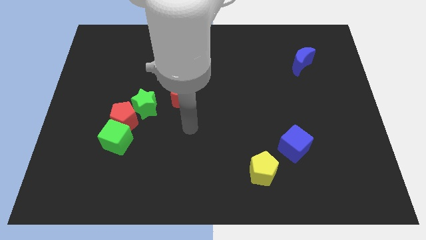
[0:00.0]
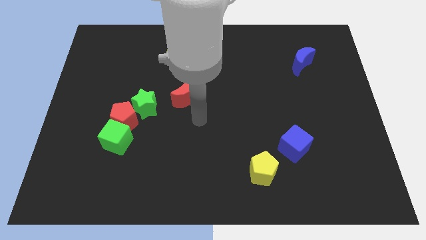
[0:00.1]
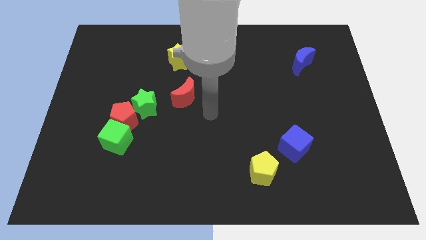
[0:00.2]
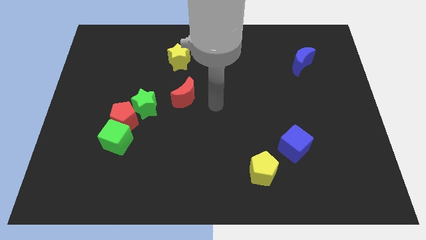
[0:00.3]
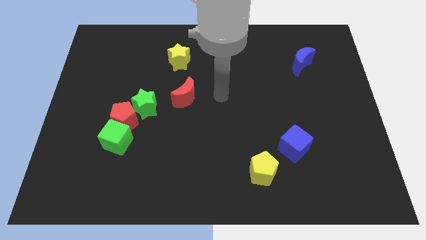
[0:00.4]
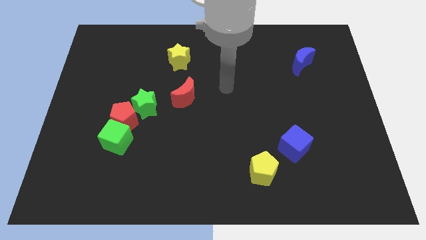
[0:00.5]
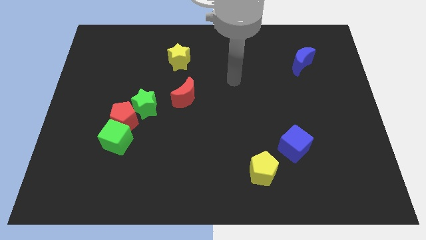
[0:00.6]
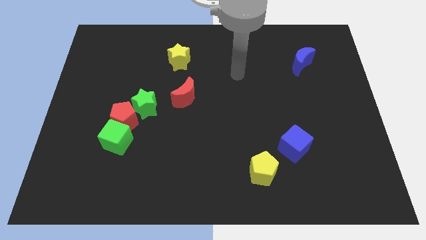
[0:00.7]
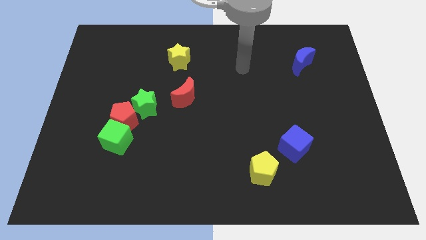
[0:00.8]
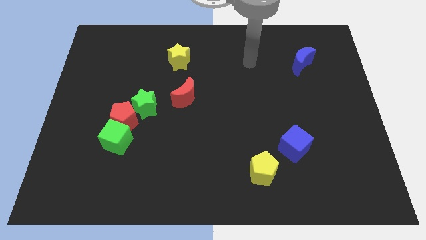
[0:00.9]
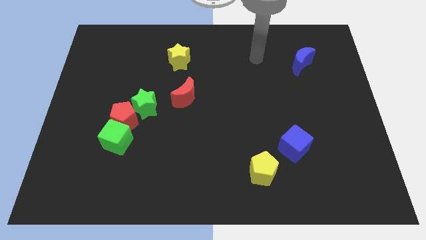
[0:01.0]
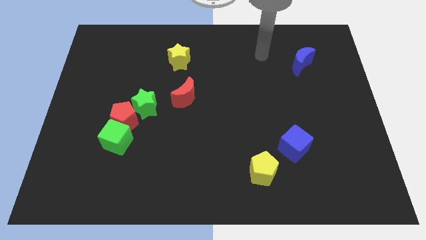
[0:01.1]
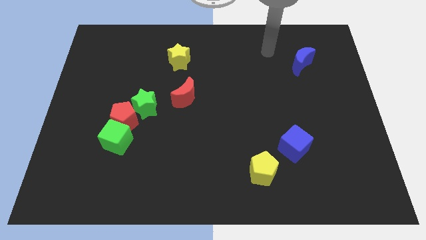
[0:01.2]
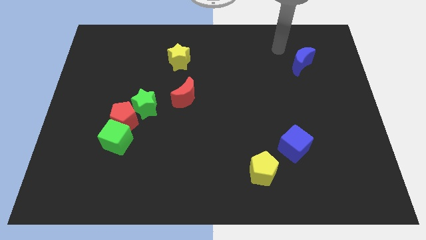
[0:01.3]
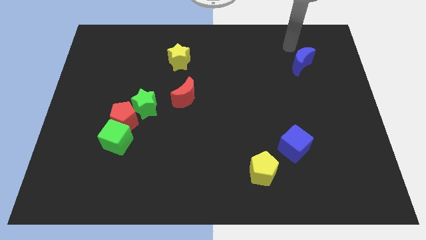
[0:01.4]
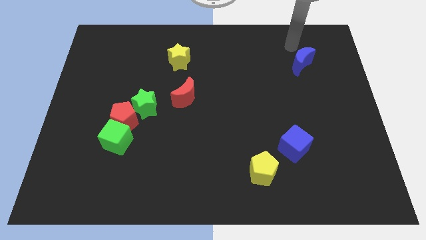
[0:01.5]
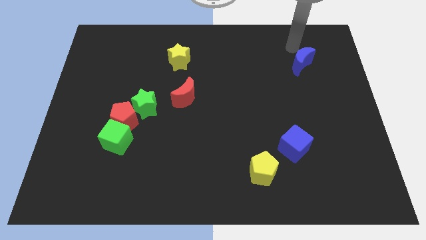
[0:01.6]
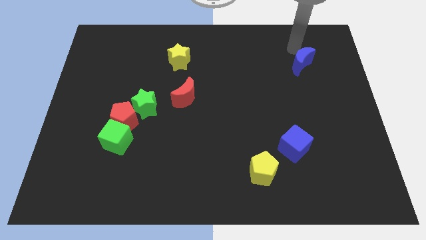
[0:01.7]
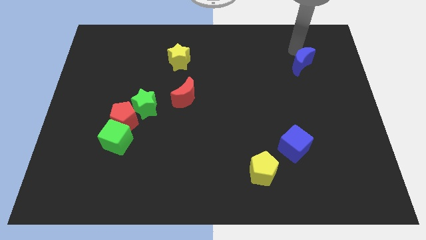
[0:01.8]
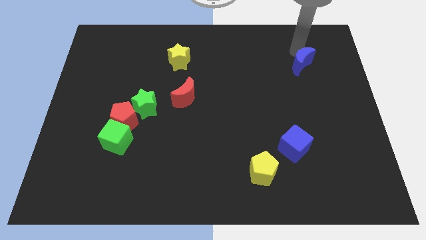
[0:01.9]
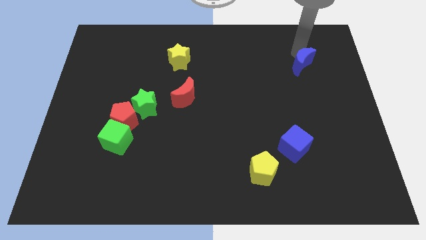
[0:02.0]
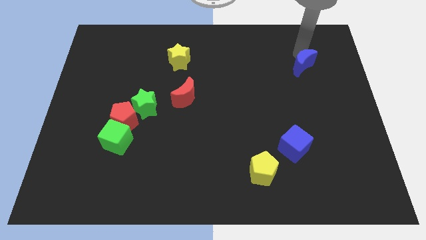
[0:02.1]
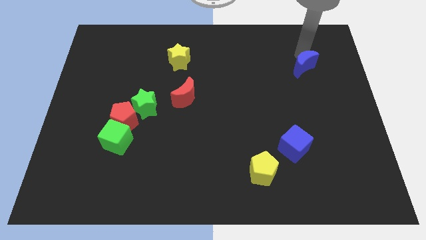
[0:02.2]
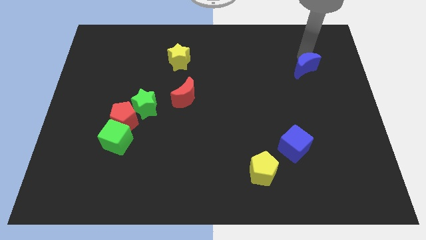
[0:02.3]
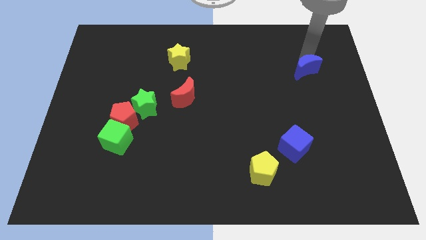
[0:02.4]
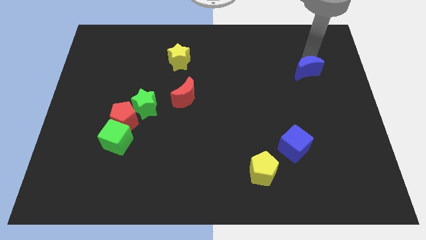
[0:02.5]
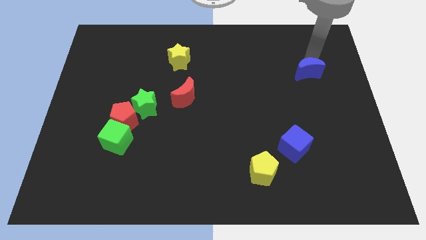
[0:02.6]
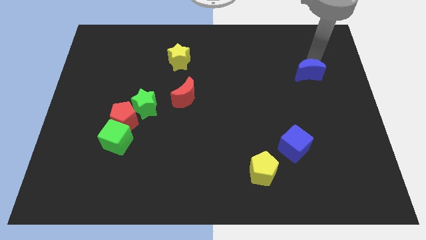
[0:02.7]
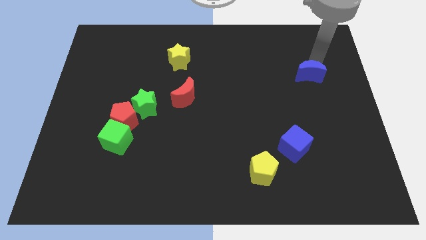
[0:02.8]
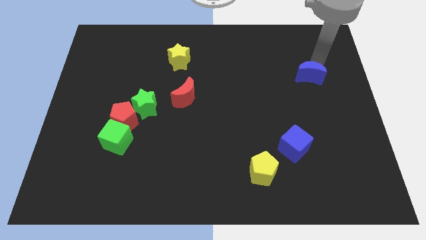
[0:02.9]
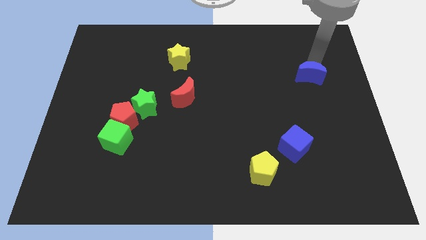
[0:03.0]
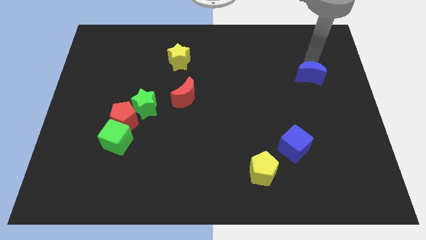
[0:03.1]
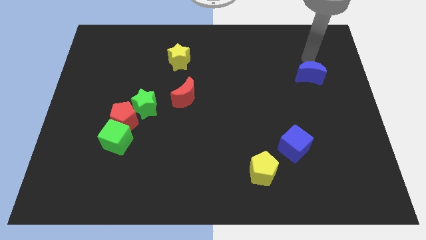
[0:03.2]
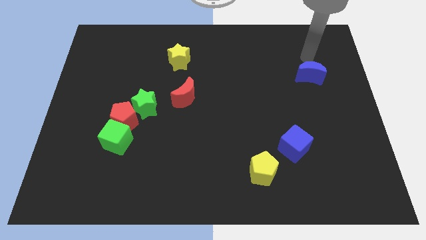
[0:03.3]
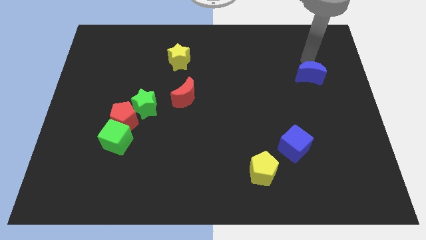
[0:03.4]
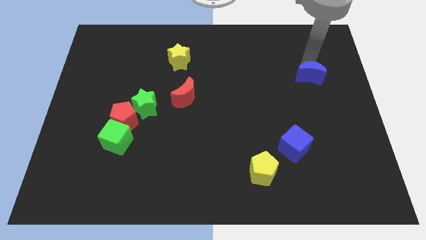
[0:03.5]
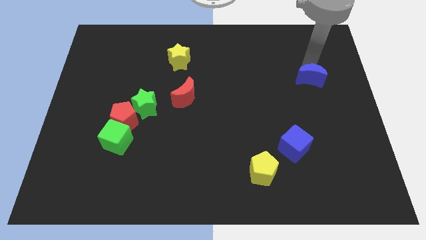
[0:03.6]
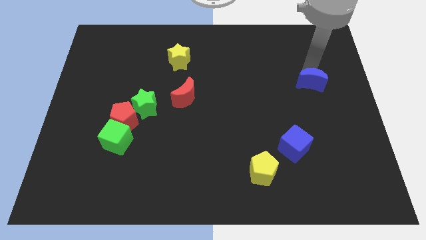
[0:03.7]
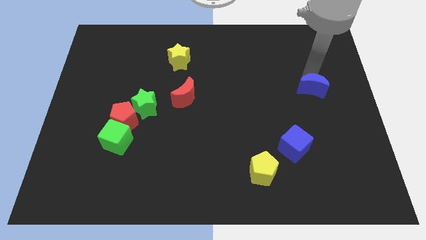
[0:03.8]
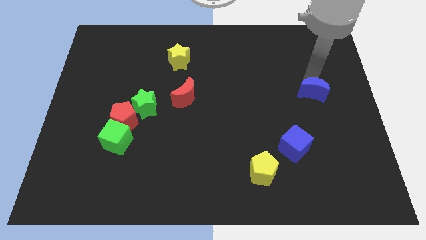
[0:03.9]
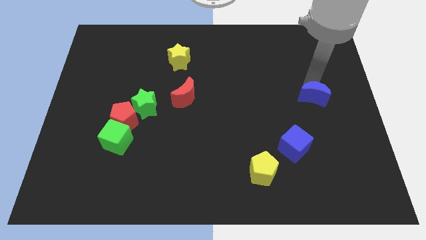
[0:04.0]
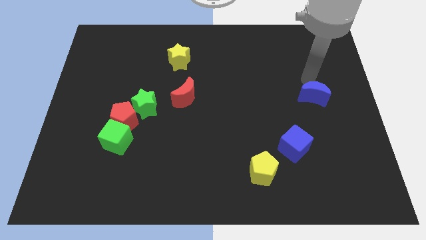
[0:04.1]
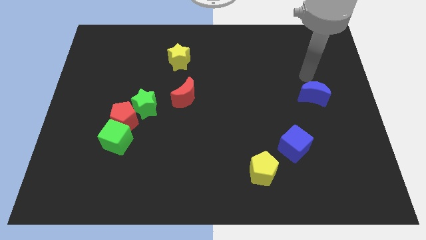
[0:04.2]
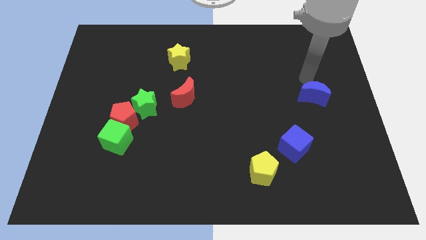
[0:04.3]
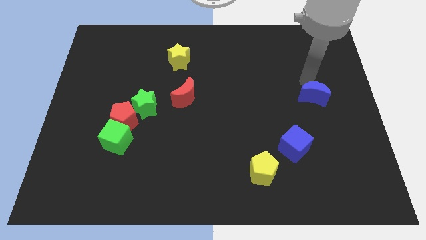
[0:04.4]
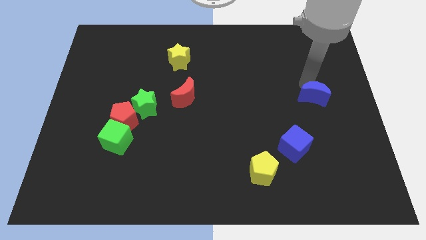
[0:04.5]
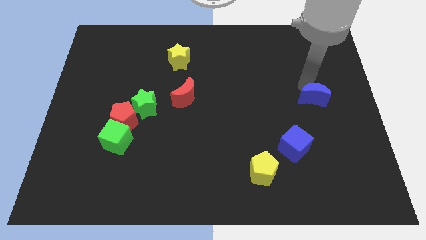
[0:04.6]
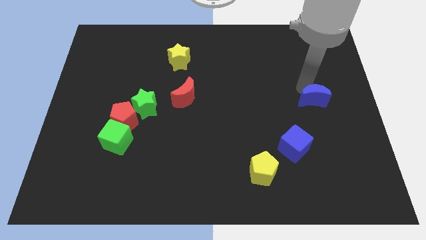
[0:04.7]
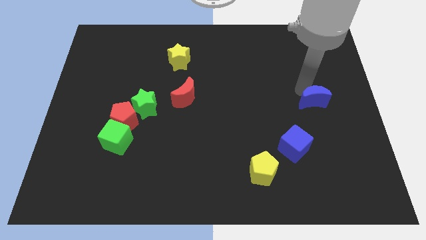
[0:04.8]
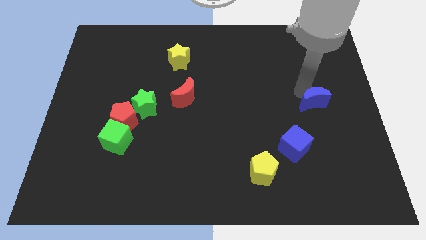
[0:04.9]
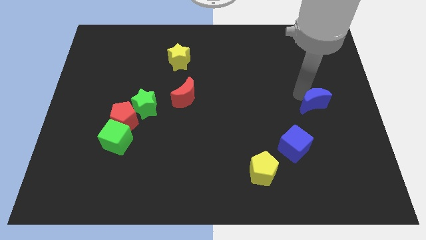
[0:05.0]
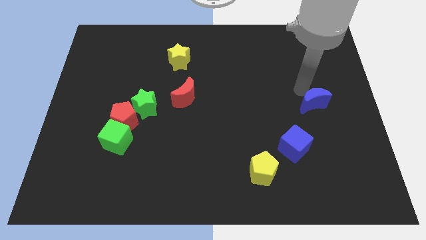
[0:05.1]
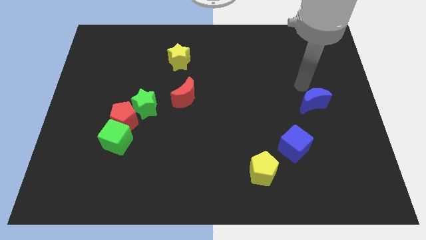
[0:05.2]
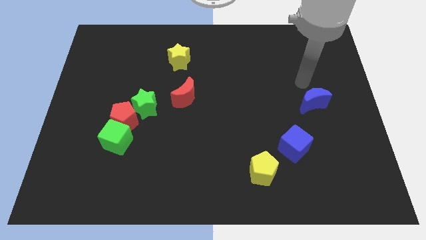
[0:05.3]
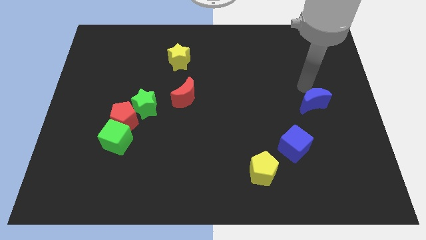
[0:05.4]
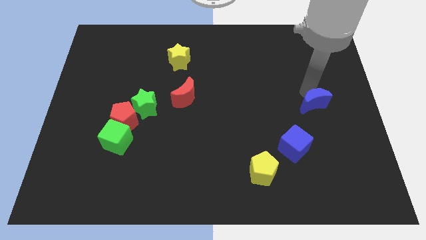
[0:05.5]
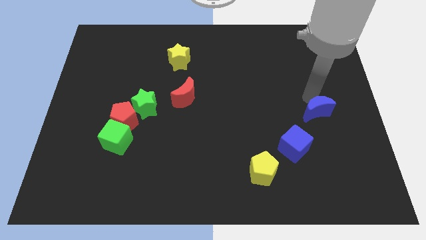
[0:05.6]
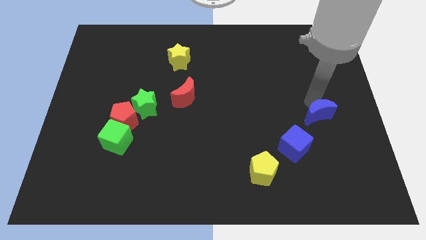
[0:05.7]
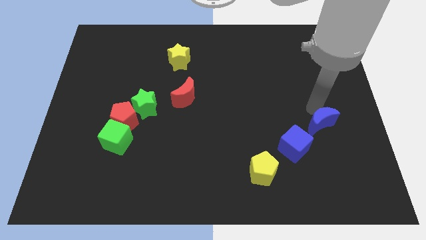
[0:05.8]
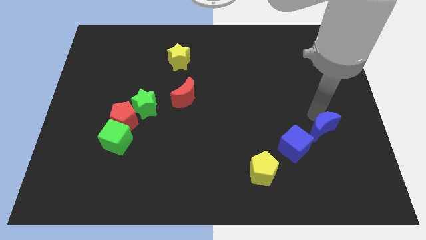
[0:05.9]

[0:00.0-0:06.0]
put the blue moon to the right side of the blue cube

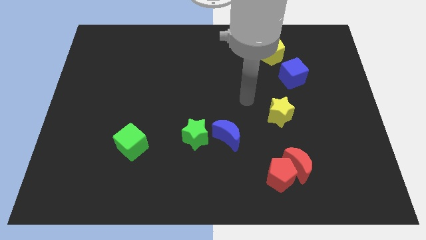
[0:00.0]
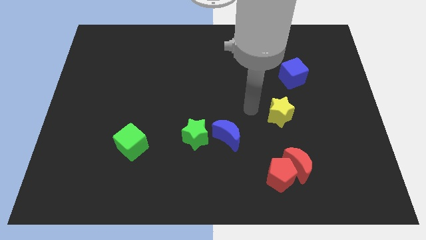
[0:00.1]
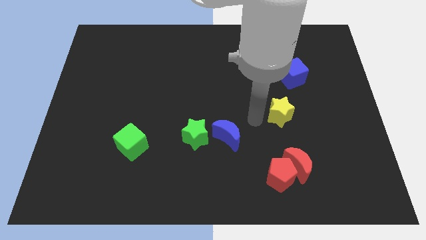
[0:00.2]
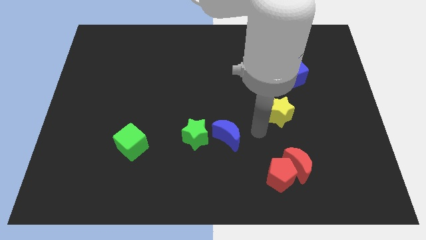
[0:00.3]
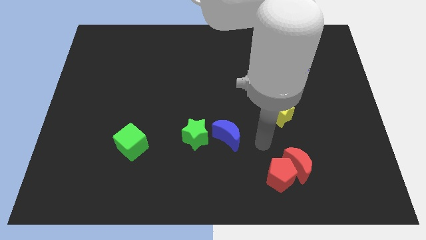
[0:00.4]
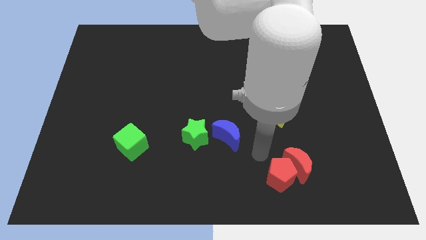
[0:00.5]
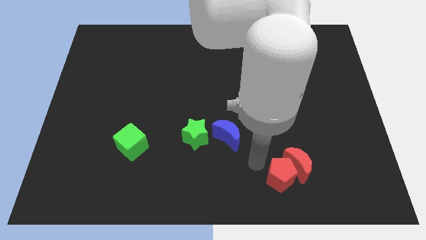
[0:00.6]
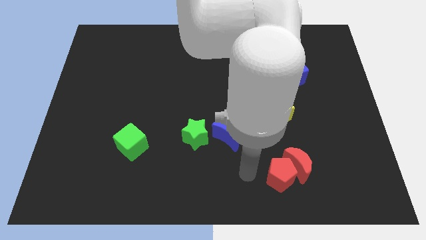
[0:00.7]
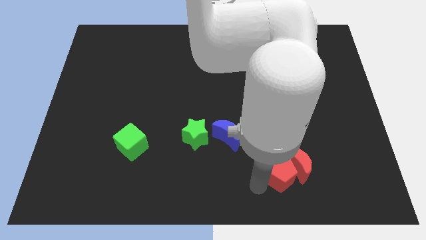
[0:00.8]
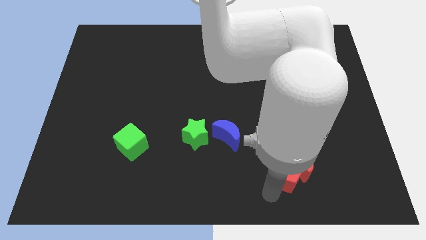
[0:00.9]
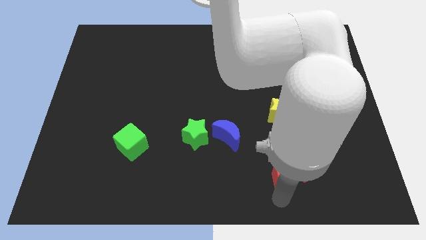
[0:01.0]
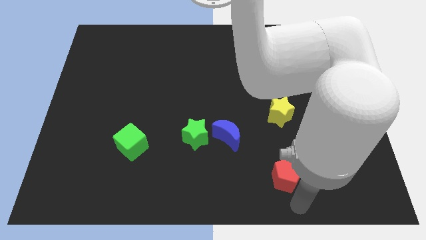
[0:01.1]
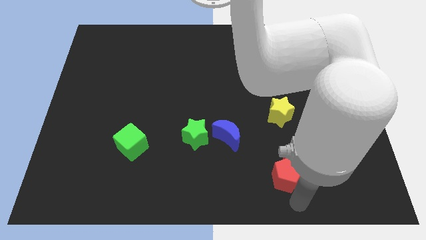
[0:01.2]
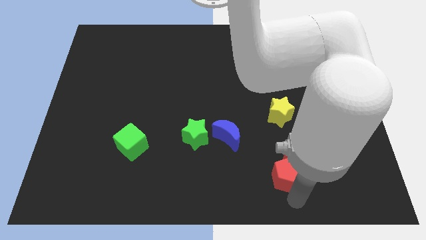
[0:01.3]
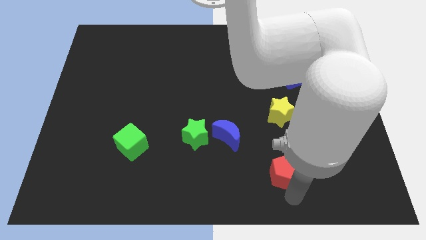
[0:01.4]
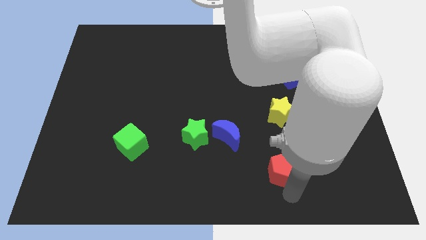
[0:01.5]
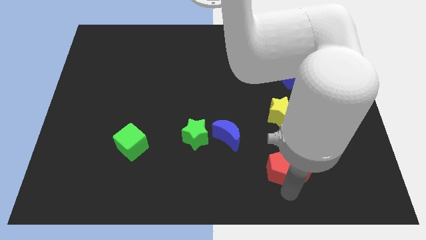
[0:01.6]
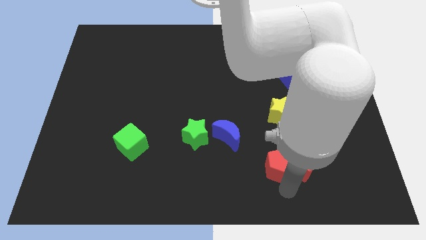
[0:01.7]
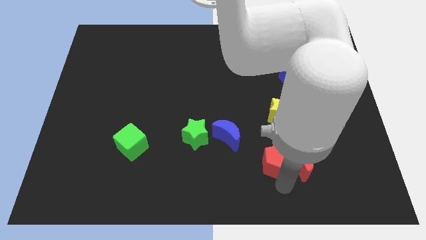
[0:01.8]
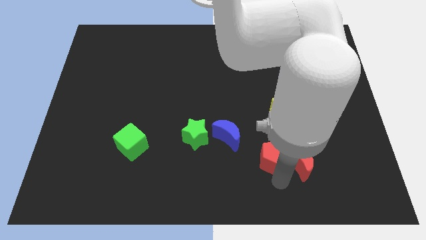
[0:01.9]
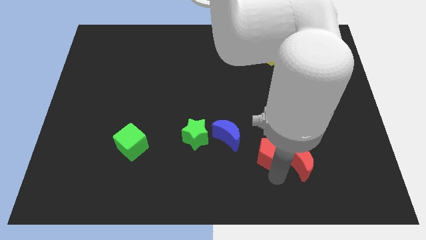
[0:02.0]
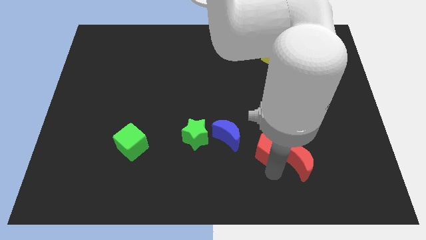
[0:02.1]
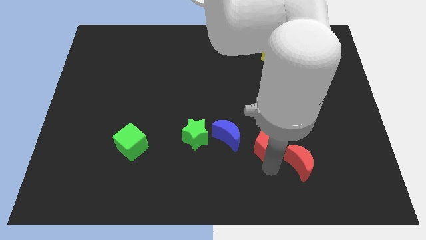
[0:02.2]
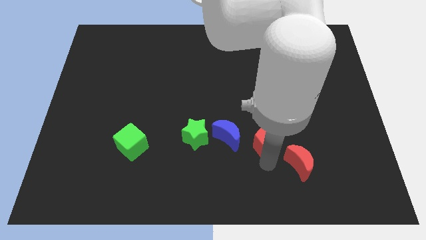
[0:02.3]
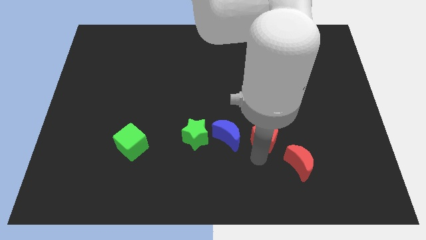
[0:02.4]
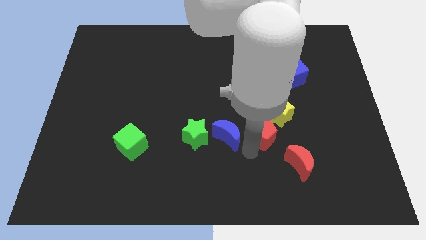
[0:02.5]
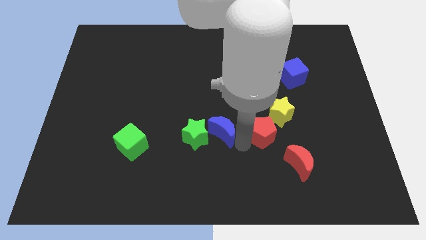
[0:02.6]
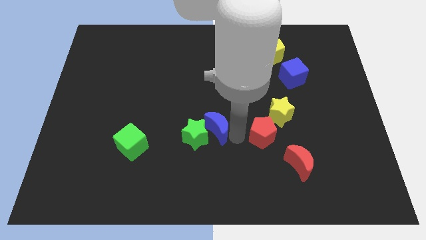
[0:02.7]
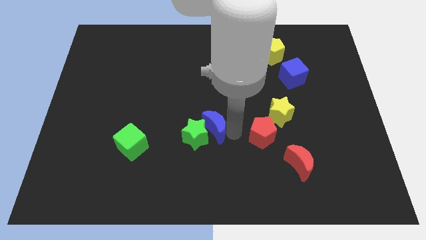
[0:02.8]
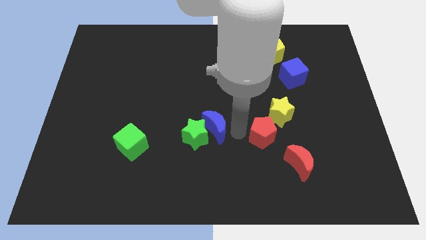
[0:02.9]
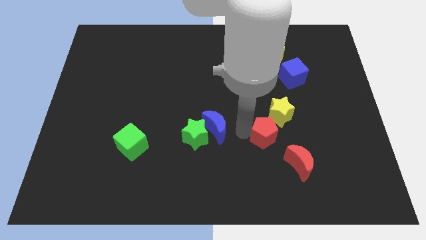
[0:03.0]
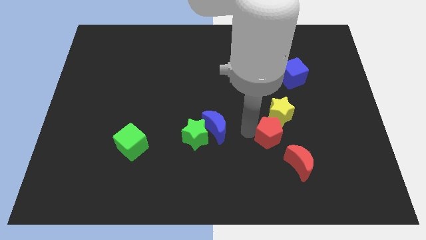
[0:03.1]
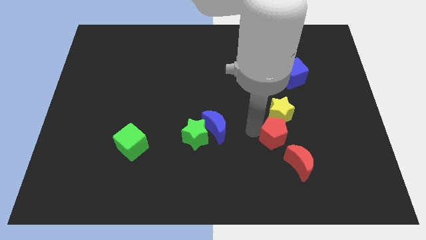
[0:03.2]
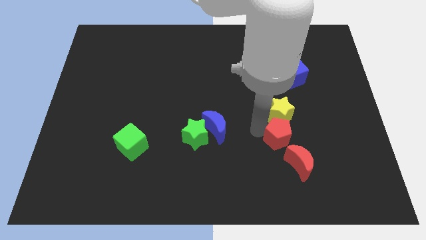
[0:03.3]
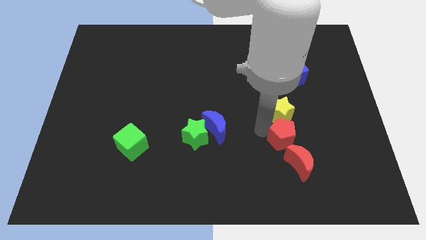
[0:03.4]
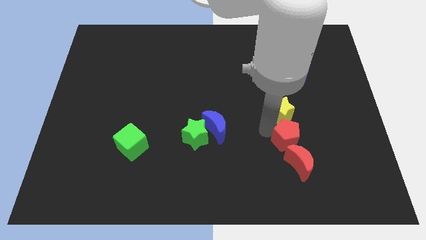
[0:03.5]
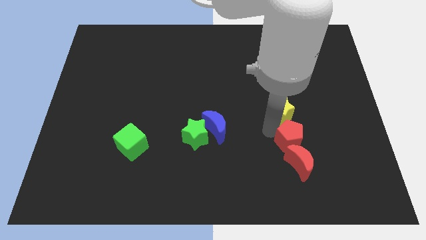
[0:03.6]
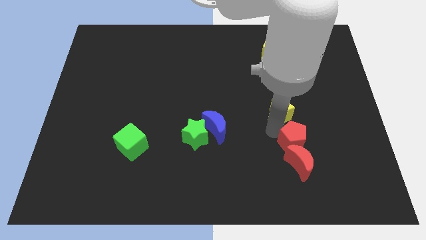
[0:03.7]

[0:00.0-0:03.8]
put the red pentagon to the top right side of the red moon
